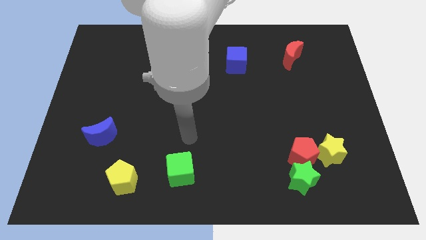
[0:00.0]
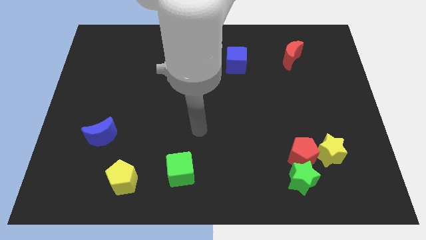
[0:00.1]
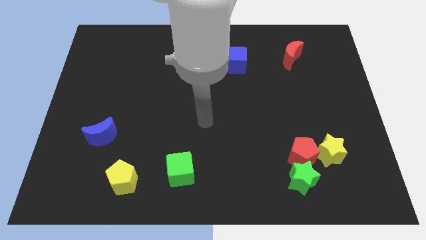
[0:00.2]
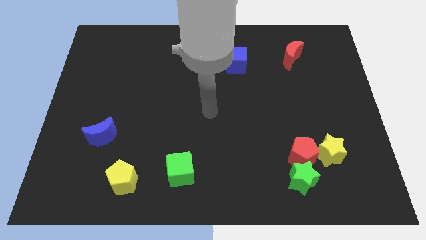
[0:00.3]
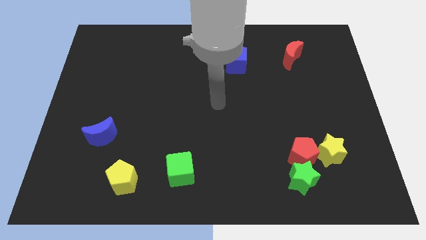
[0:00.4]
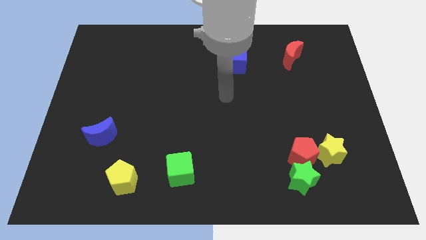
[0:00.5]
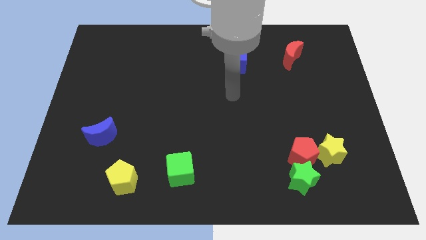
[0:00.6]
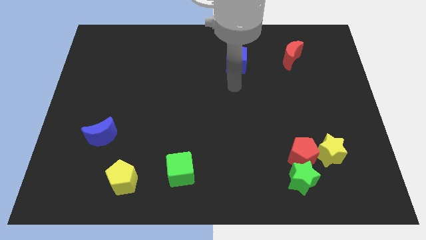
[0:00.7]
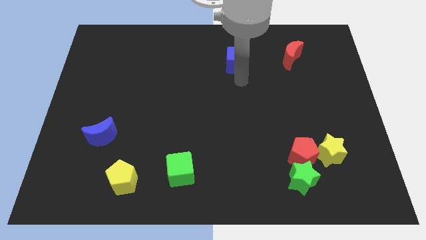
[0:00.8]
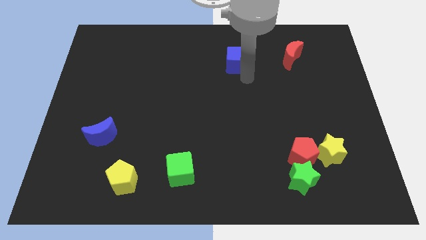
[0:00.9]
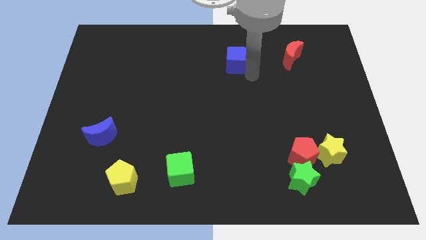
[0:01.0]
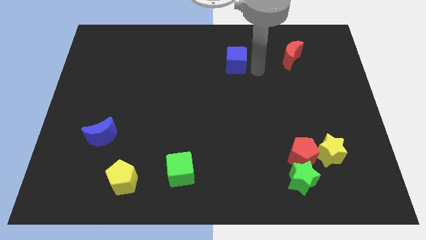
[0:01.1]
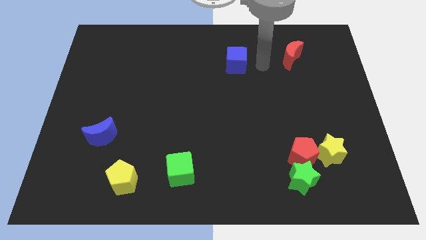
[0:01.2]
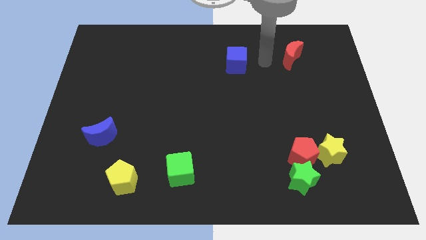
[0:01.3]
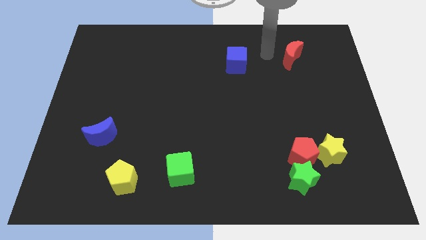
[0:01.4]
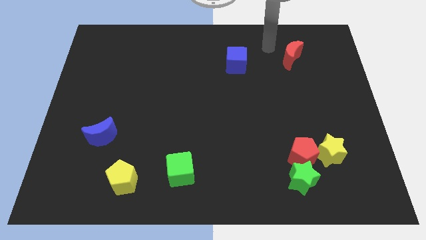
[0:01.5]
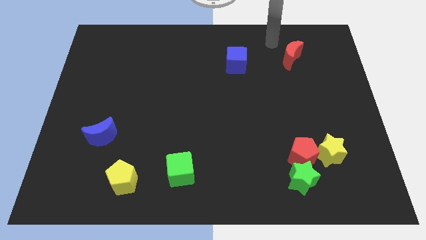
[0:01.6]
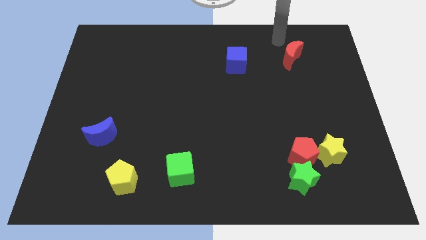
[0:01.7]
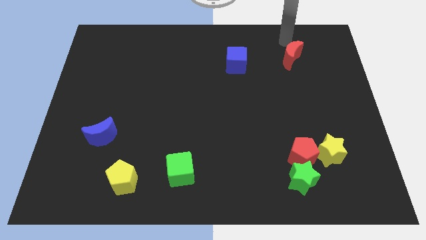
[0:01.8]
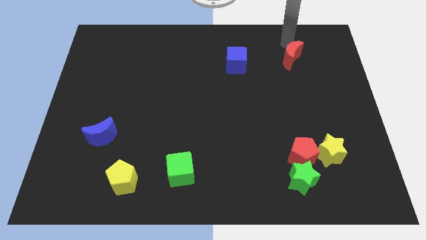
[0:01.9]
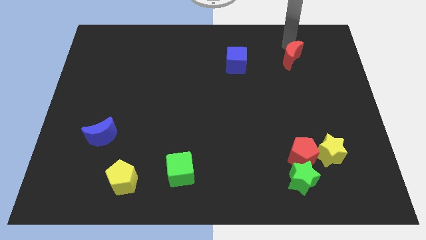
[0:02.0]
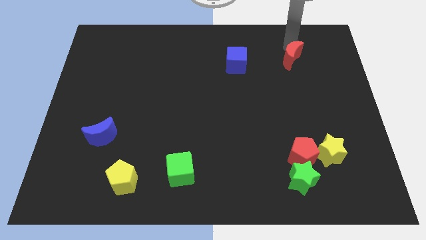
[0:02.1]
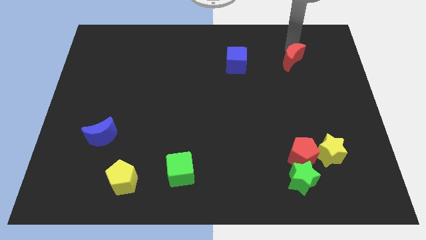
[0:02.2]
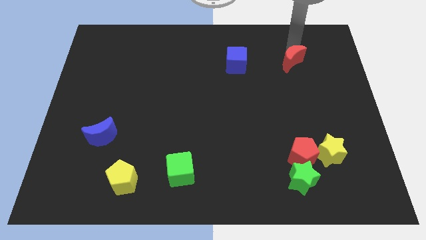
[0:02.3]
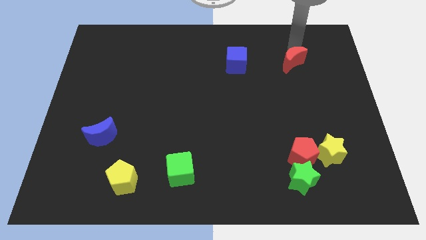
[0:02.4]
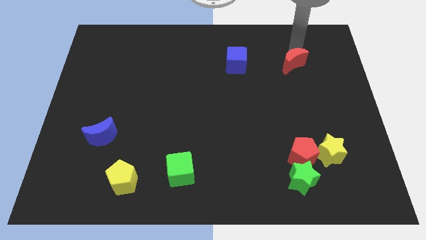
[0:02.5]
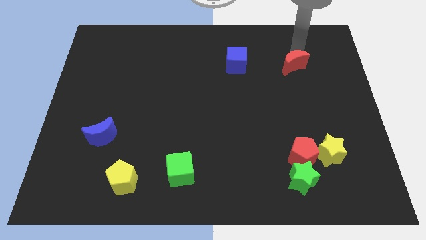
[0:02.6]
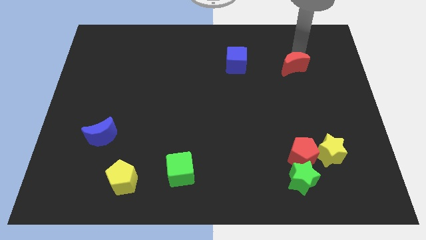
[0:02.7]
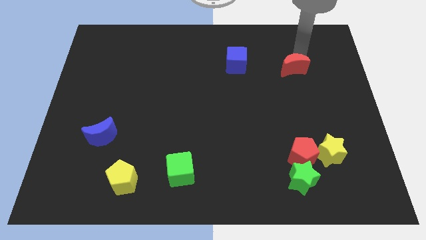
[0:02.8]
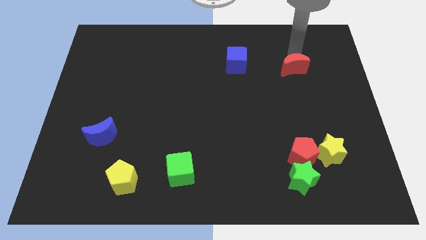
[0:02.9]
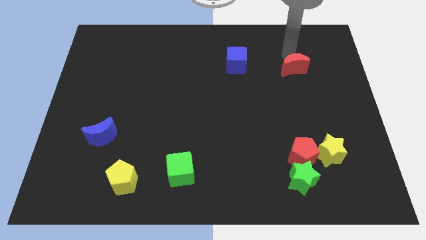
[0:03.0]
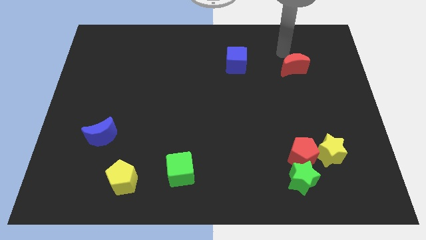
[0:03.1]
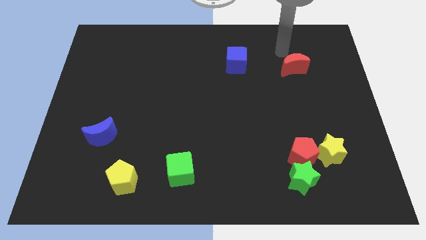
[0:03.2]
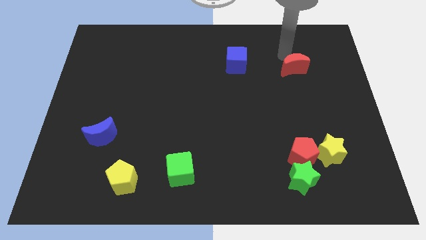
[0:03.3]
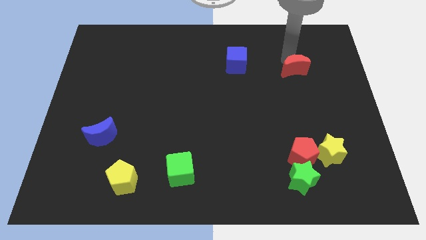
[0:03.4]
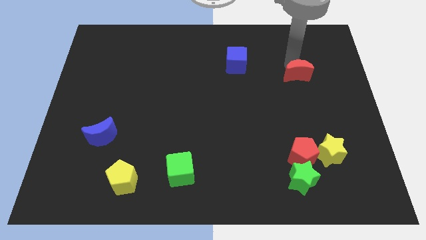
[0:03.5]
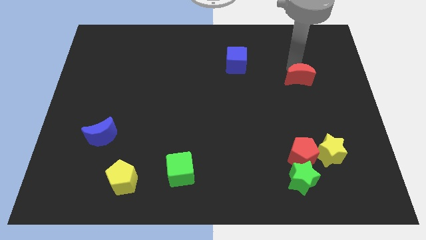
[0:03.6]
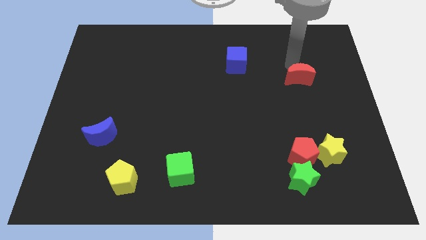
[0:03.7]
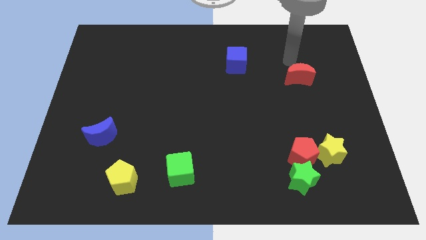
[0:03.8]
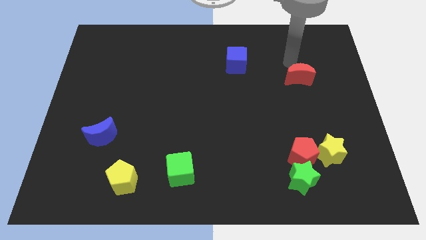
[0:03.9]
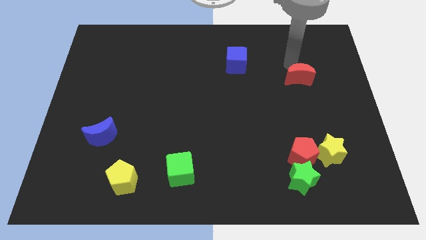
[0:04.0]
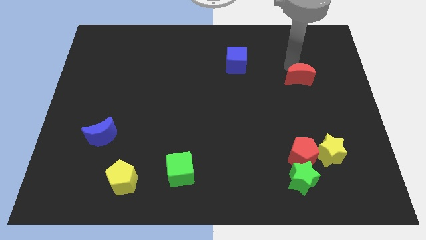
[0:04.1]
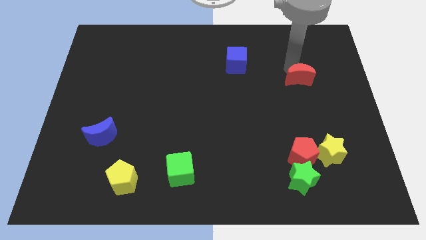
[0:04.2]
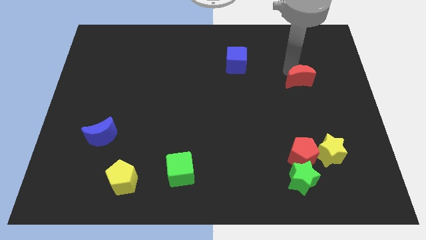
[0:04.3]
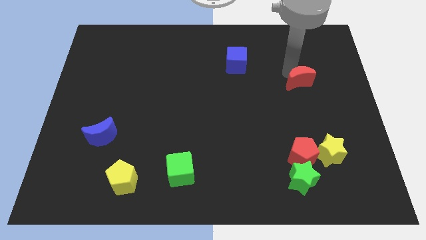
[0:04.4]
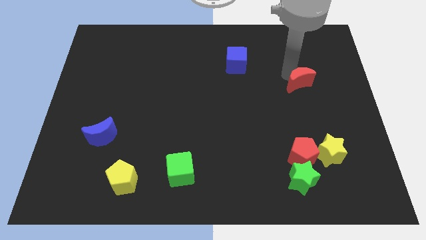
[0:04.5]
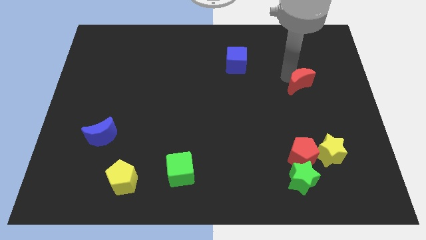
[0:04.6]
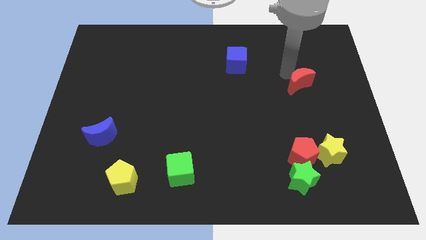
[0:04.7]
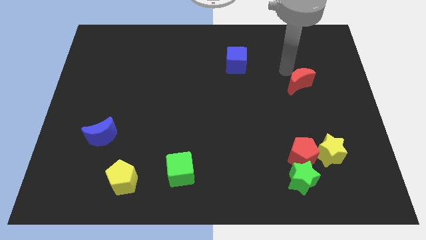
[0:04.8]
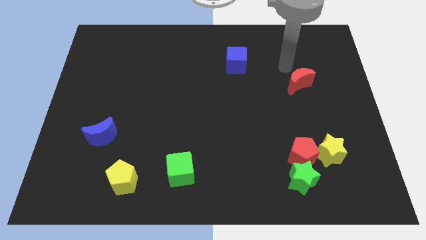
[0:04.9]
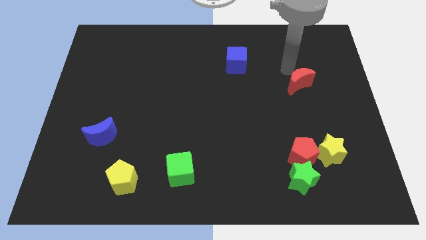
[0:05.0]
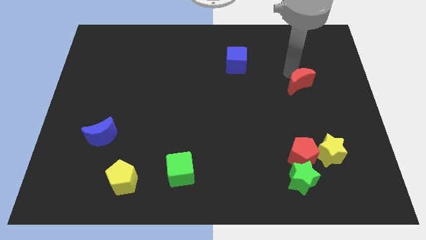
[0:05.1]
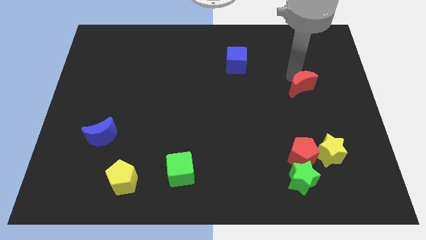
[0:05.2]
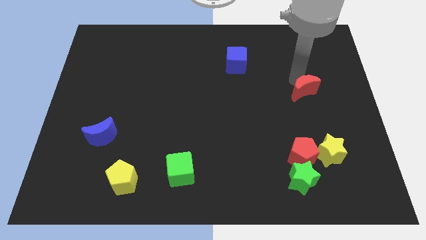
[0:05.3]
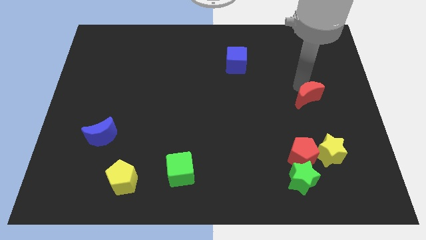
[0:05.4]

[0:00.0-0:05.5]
put the red moon to the top side of the yellow star
